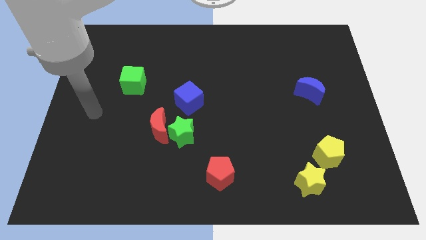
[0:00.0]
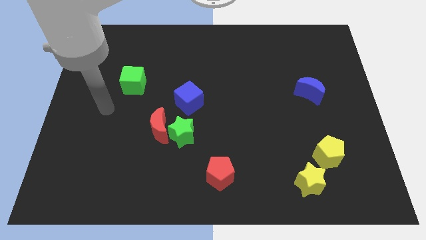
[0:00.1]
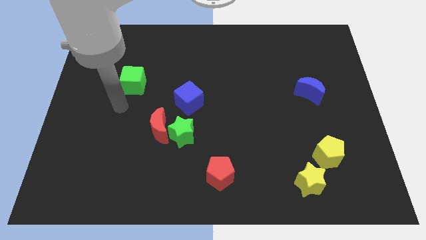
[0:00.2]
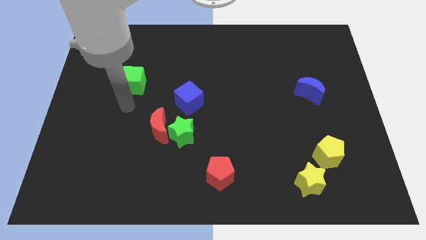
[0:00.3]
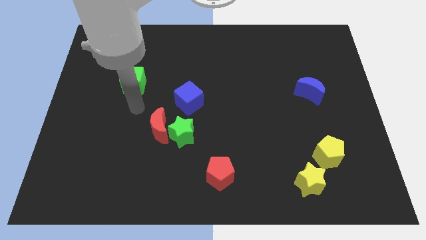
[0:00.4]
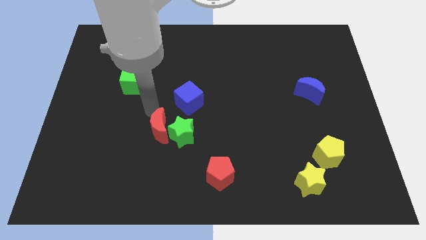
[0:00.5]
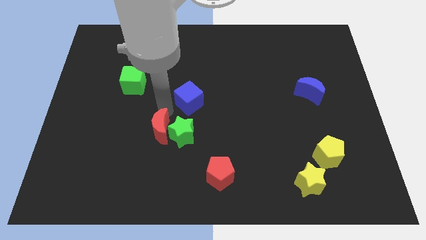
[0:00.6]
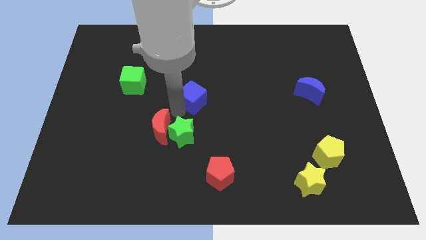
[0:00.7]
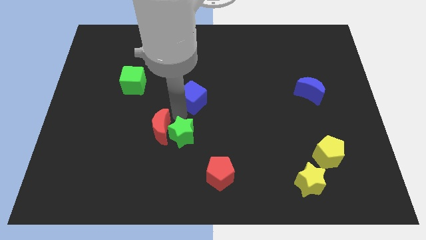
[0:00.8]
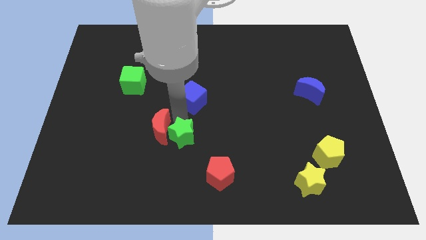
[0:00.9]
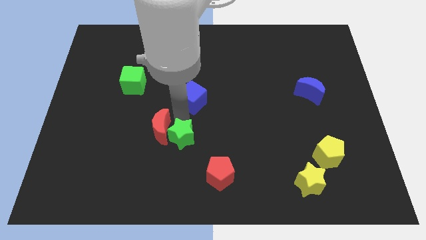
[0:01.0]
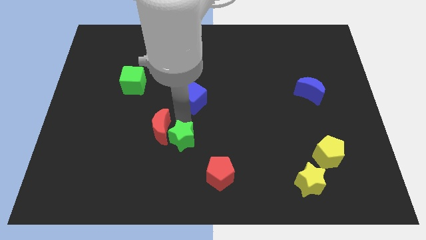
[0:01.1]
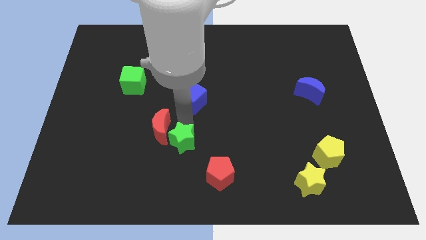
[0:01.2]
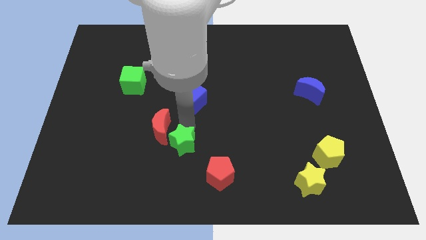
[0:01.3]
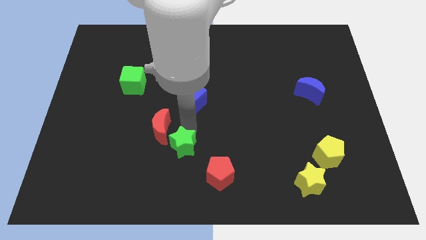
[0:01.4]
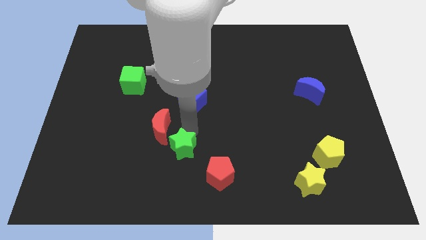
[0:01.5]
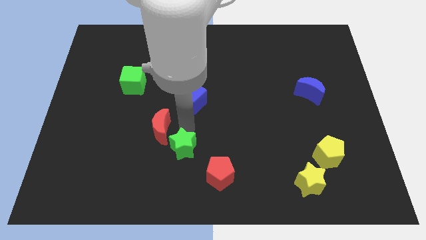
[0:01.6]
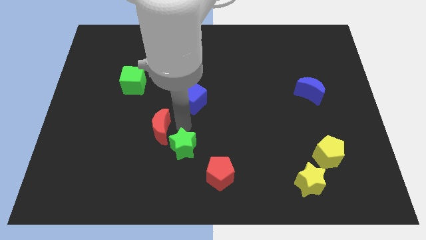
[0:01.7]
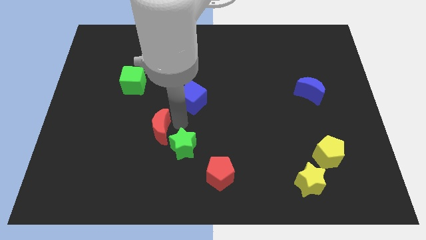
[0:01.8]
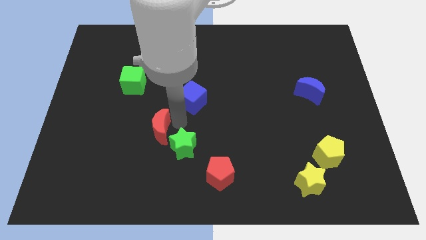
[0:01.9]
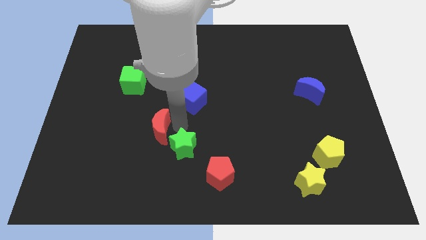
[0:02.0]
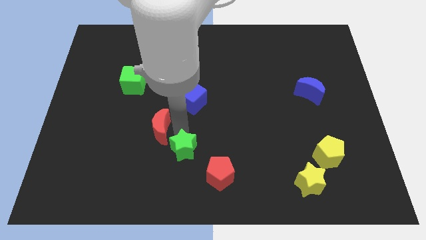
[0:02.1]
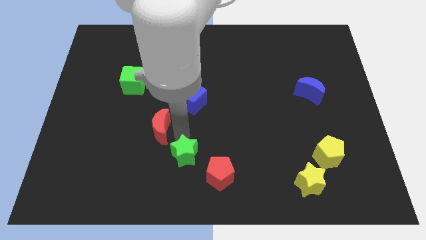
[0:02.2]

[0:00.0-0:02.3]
pull the green star apart from the red moon and blue cube

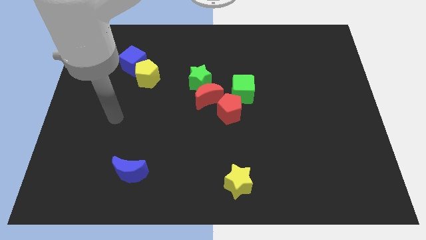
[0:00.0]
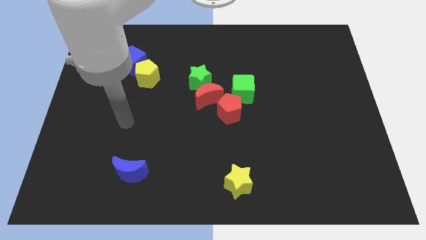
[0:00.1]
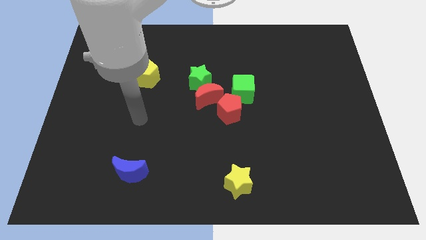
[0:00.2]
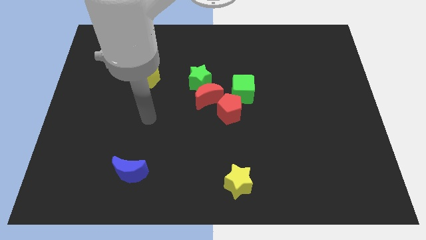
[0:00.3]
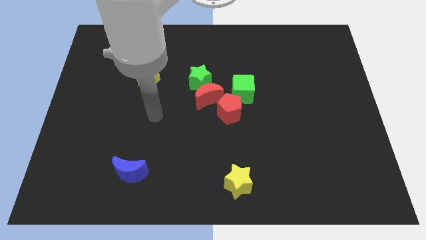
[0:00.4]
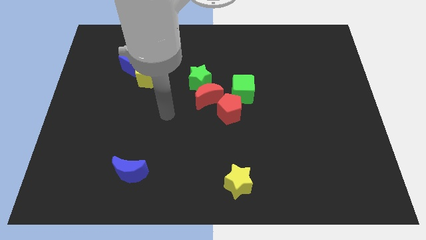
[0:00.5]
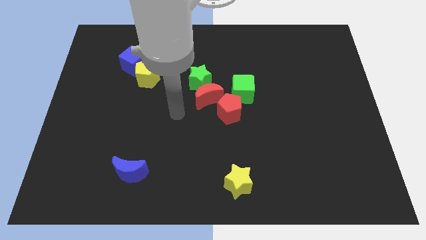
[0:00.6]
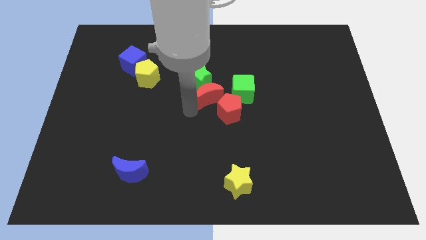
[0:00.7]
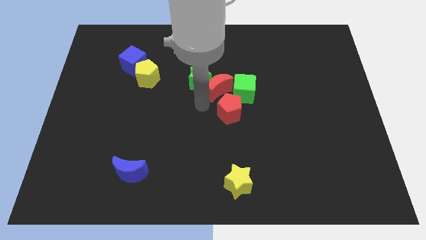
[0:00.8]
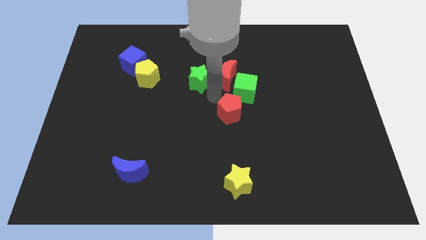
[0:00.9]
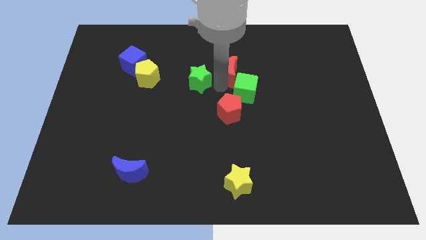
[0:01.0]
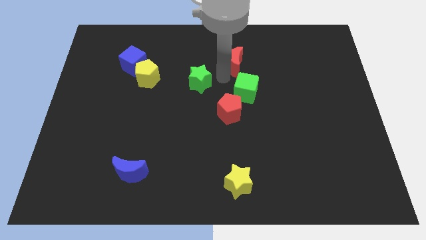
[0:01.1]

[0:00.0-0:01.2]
separate the green star from the red moon

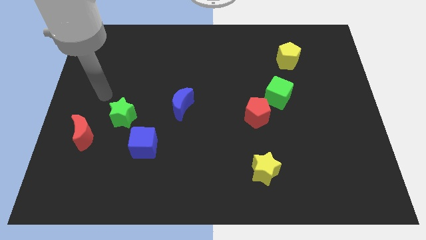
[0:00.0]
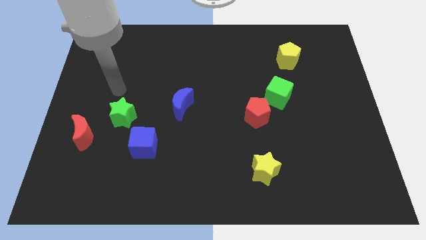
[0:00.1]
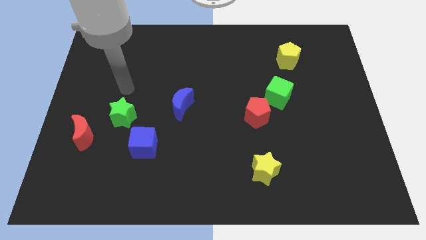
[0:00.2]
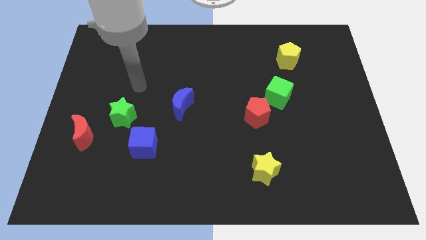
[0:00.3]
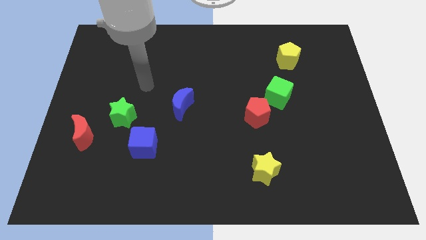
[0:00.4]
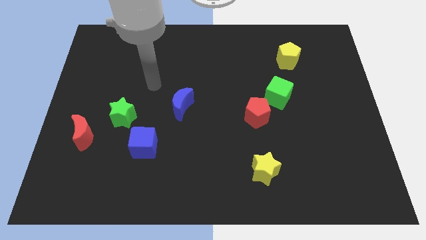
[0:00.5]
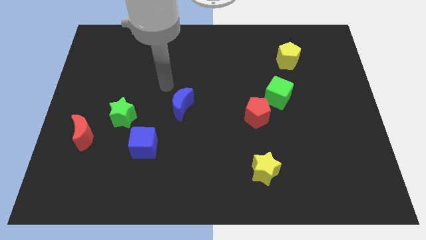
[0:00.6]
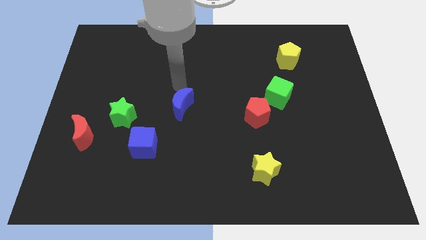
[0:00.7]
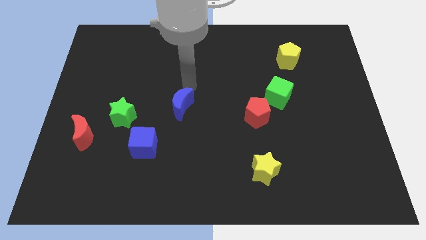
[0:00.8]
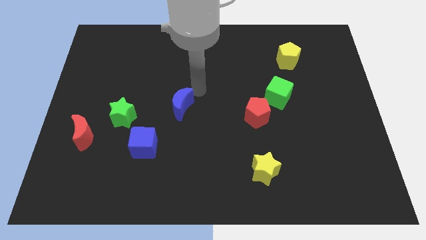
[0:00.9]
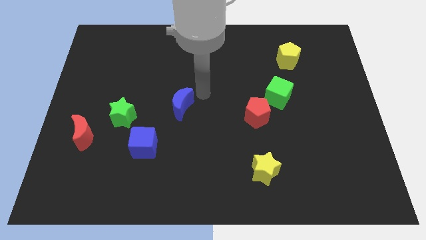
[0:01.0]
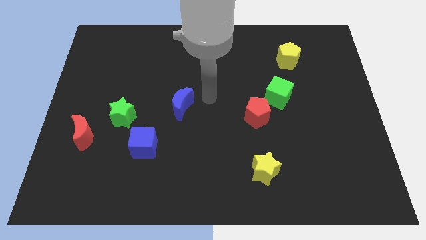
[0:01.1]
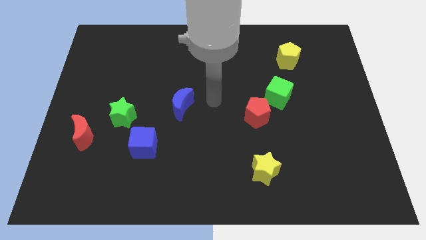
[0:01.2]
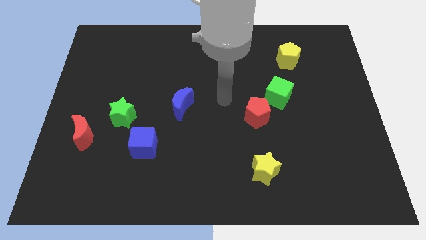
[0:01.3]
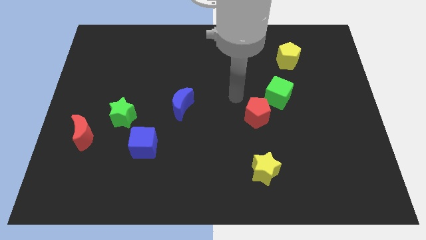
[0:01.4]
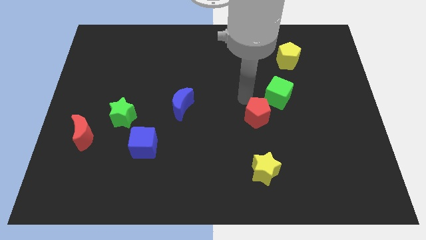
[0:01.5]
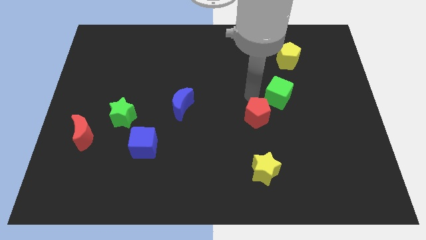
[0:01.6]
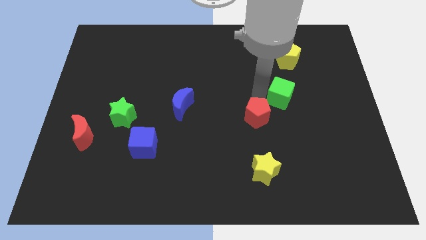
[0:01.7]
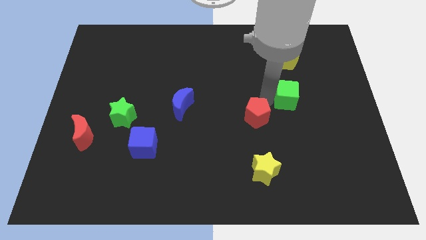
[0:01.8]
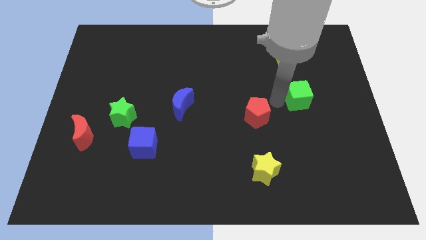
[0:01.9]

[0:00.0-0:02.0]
move the red pentagon away from the green cube

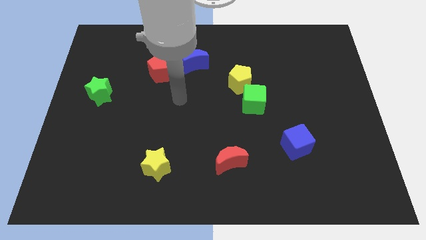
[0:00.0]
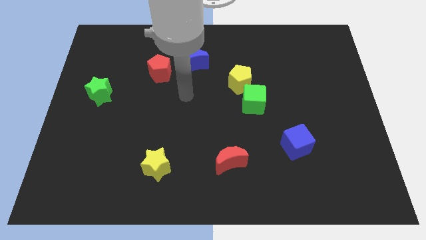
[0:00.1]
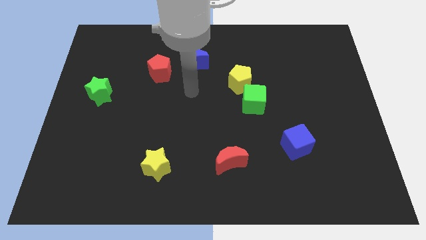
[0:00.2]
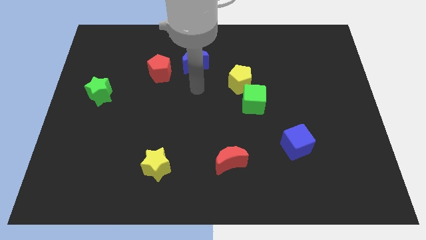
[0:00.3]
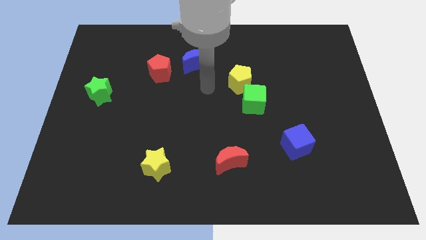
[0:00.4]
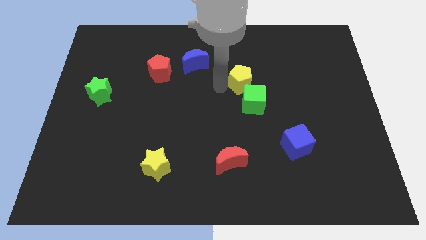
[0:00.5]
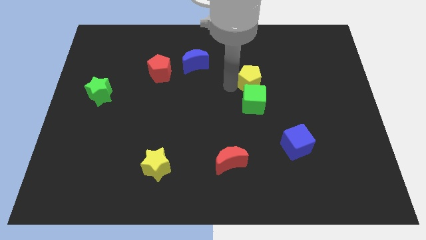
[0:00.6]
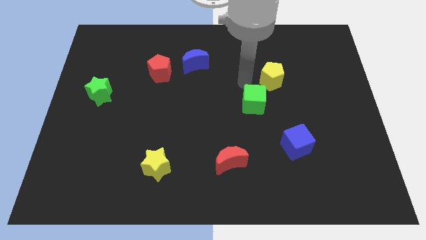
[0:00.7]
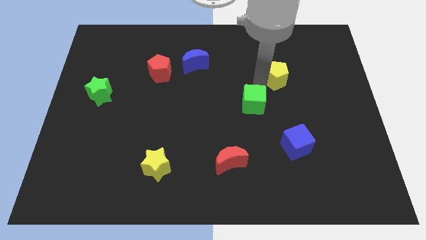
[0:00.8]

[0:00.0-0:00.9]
separate the green cube from the yellow pentagon

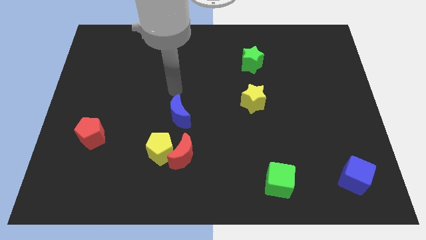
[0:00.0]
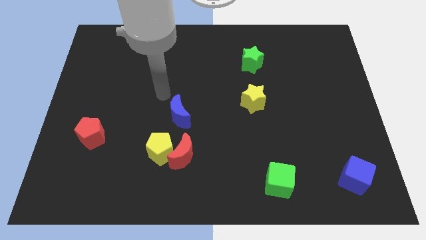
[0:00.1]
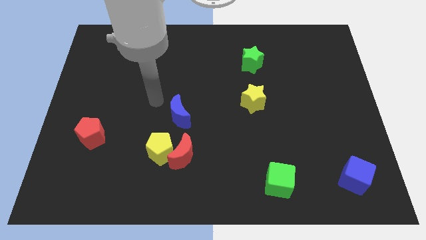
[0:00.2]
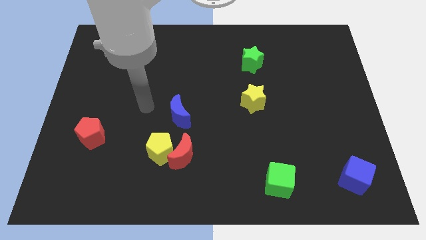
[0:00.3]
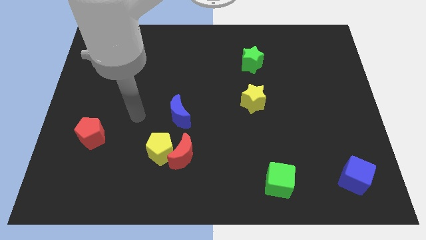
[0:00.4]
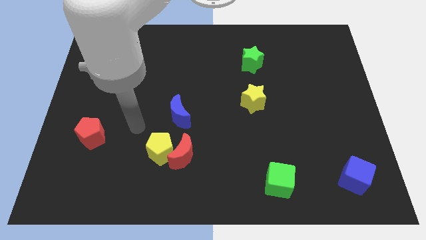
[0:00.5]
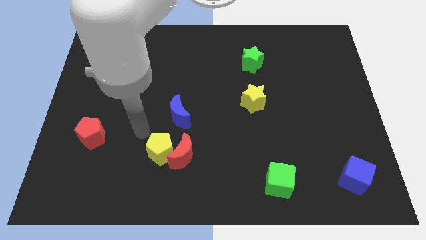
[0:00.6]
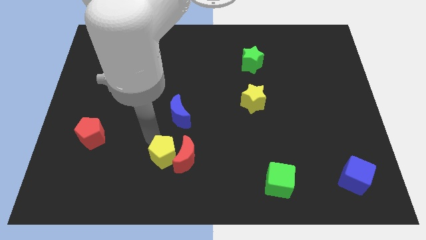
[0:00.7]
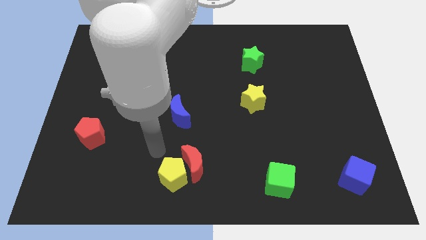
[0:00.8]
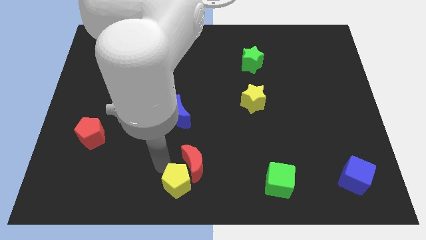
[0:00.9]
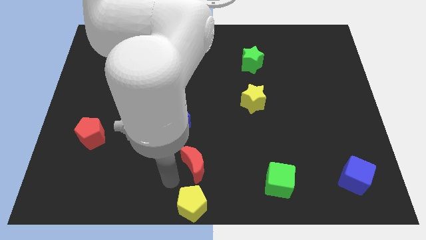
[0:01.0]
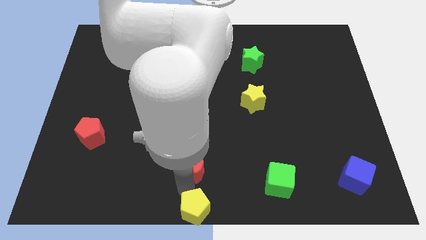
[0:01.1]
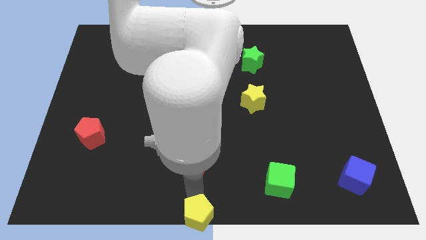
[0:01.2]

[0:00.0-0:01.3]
separate the red moon from the yellow pentagon

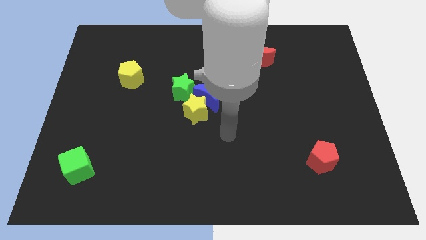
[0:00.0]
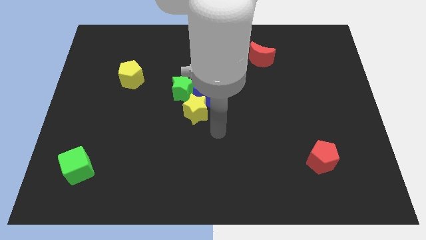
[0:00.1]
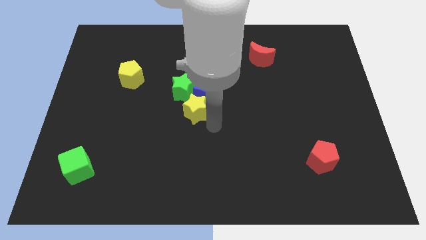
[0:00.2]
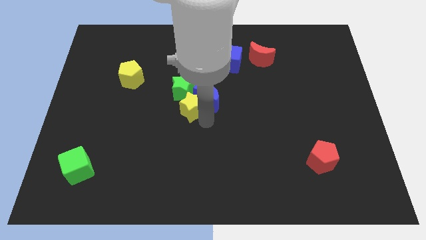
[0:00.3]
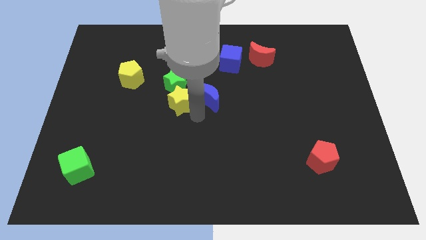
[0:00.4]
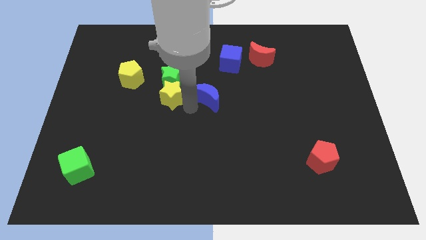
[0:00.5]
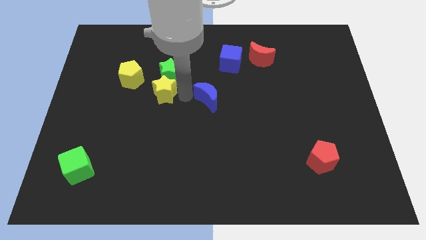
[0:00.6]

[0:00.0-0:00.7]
separate the blue moon from the yellow star and green star

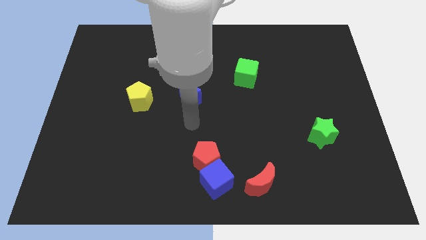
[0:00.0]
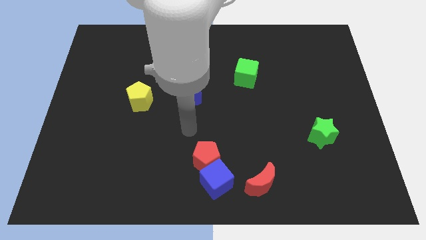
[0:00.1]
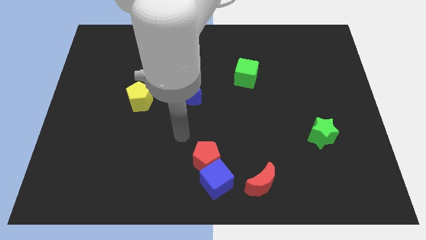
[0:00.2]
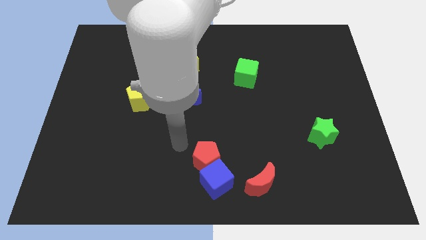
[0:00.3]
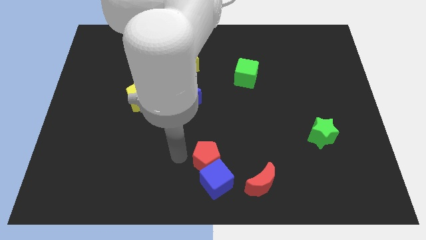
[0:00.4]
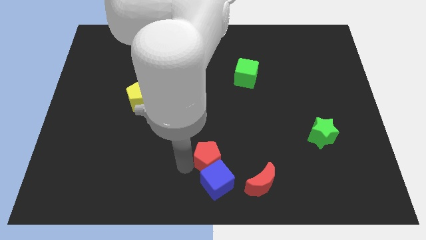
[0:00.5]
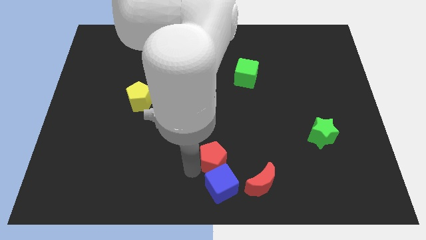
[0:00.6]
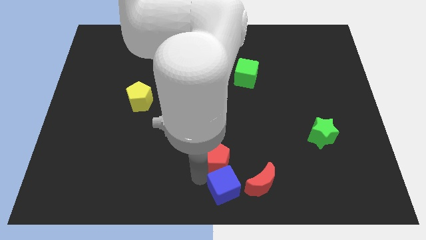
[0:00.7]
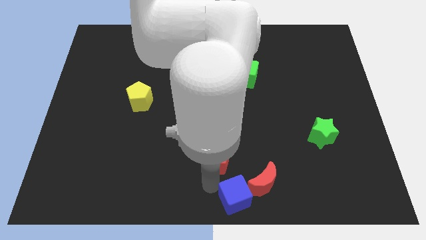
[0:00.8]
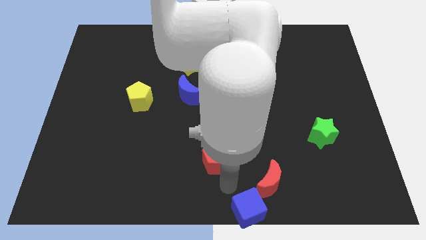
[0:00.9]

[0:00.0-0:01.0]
move the red pentagon away from the blue cube

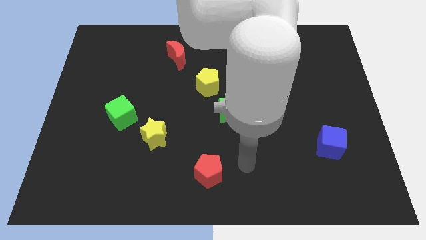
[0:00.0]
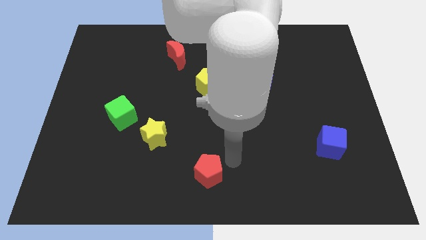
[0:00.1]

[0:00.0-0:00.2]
separate the green cube from the yellow star
